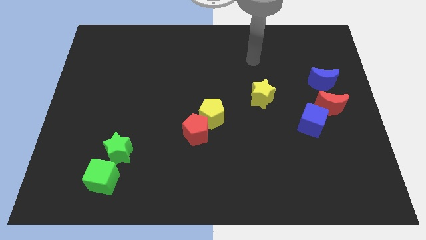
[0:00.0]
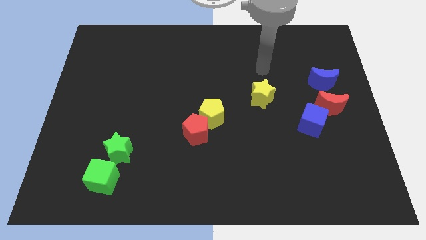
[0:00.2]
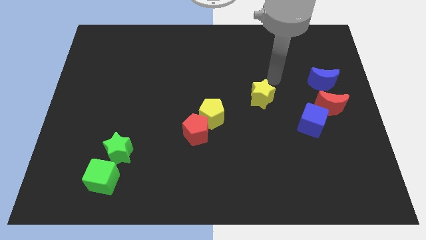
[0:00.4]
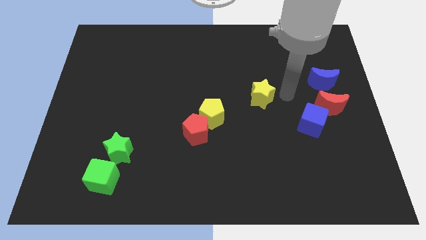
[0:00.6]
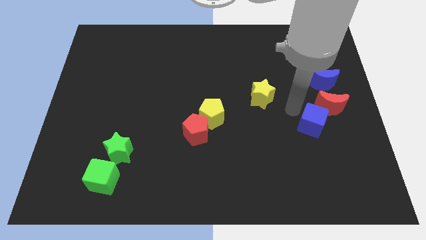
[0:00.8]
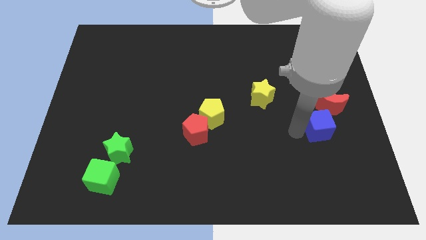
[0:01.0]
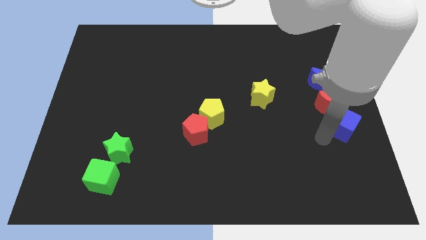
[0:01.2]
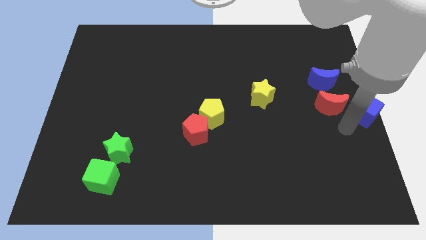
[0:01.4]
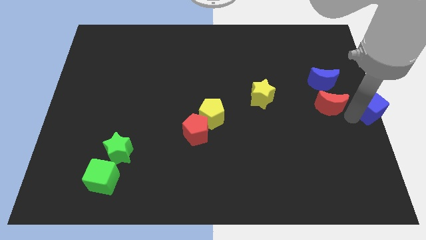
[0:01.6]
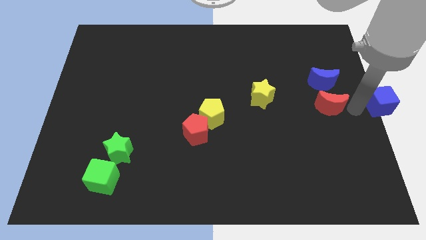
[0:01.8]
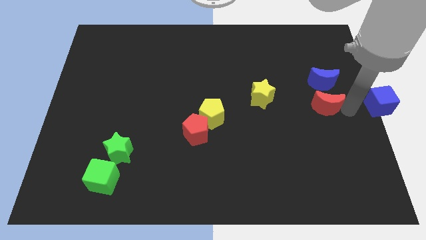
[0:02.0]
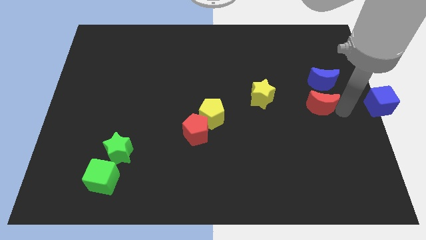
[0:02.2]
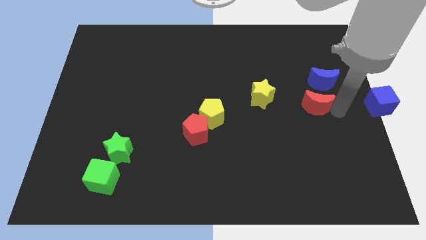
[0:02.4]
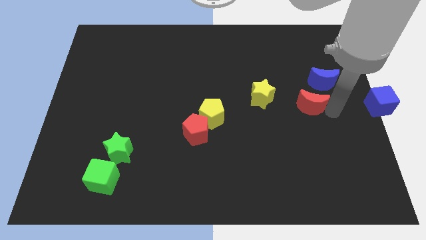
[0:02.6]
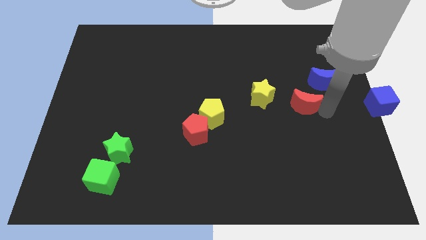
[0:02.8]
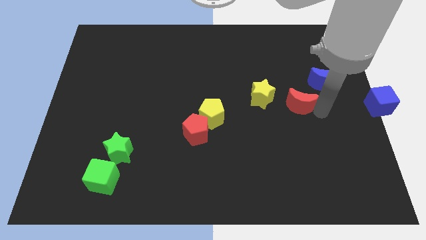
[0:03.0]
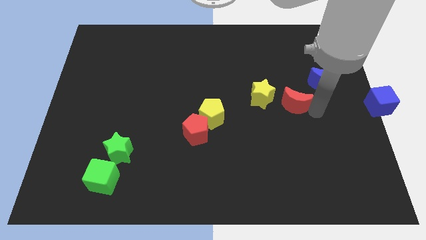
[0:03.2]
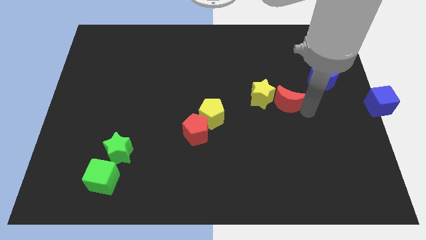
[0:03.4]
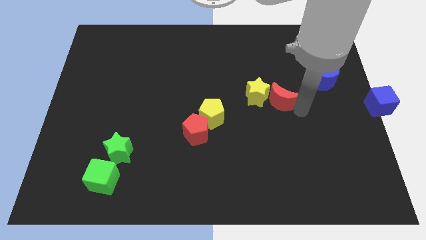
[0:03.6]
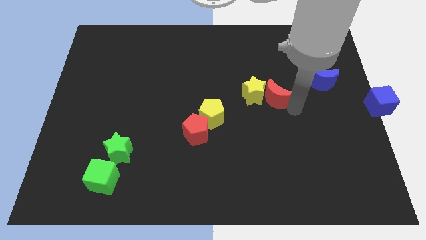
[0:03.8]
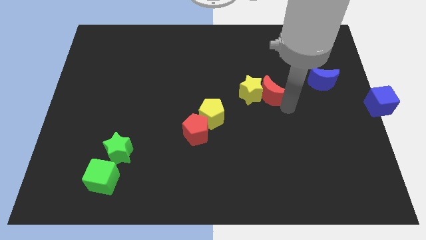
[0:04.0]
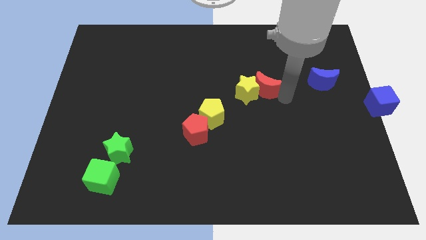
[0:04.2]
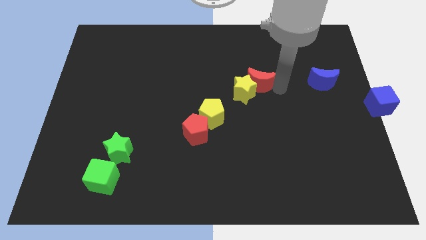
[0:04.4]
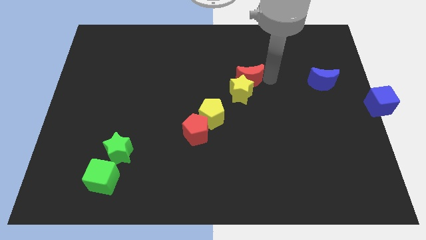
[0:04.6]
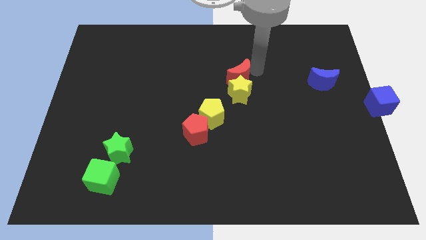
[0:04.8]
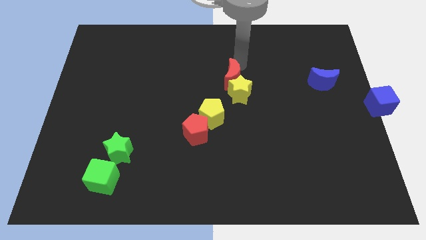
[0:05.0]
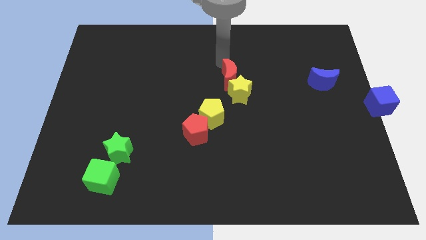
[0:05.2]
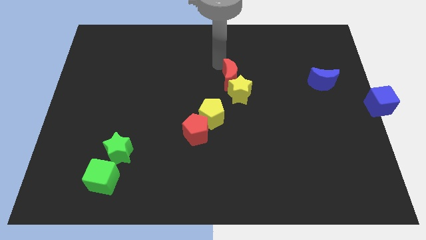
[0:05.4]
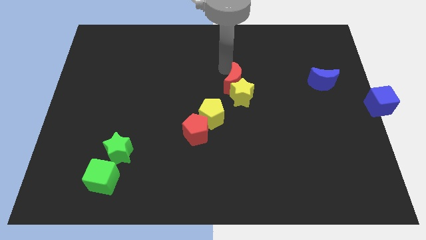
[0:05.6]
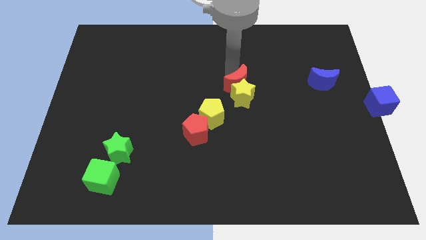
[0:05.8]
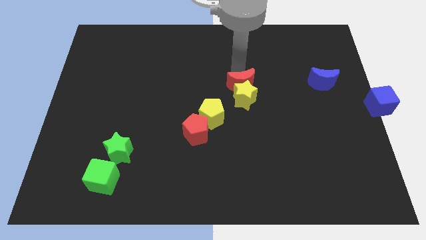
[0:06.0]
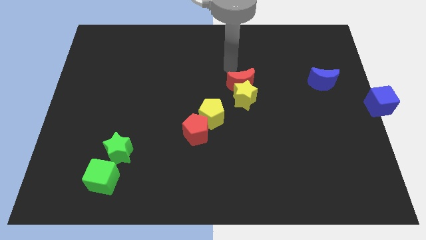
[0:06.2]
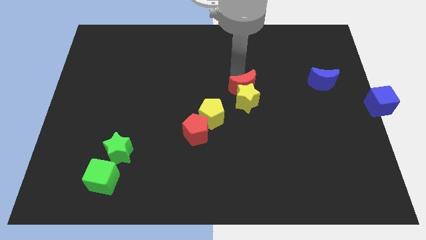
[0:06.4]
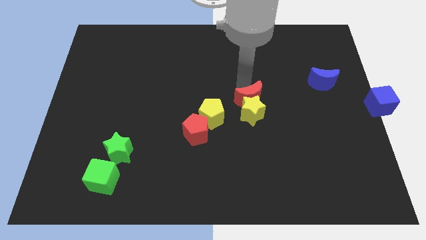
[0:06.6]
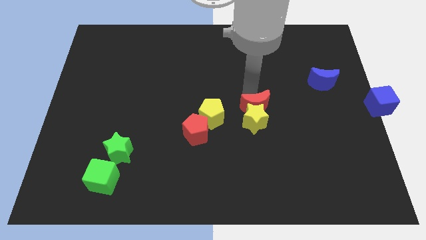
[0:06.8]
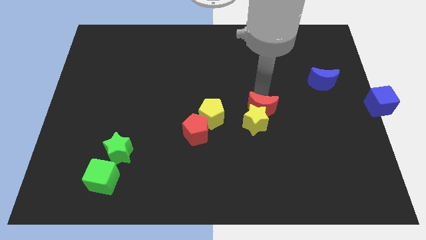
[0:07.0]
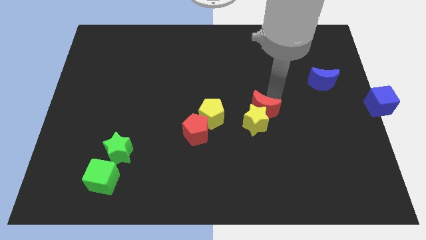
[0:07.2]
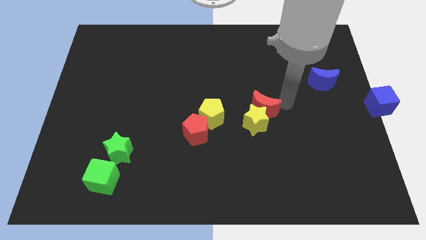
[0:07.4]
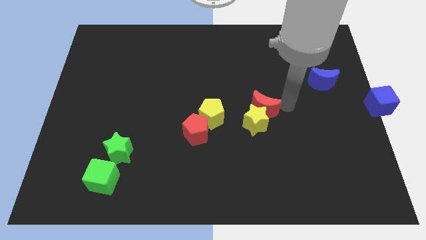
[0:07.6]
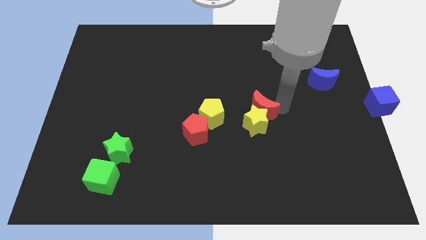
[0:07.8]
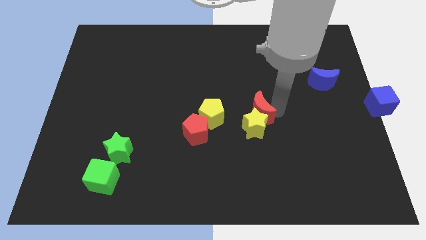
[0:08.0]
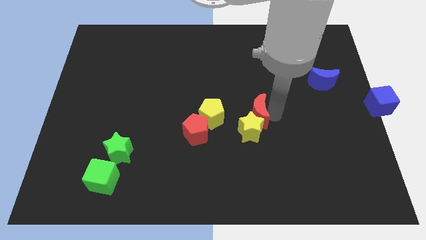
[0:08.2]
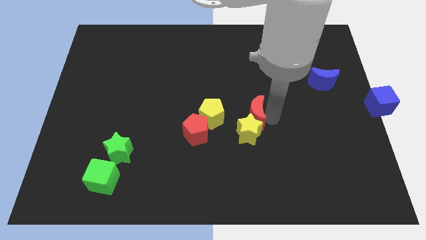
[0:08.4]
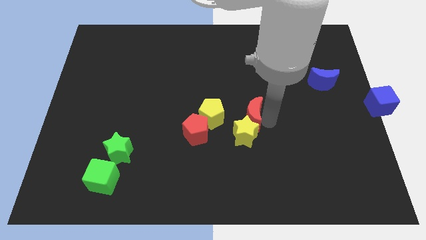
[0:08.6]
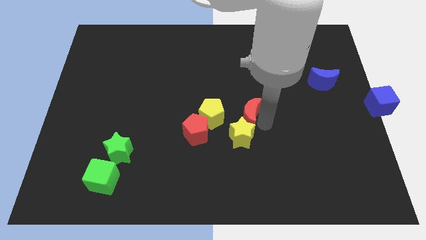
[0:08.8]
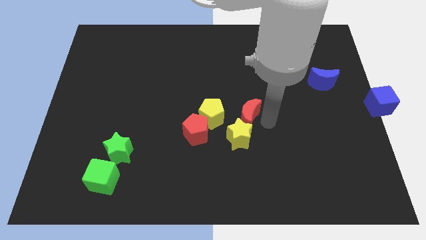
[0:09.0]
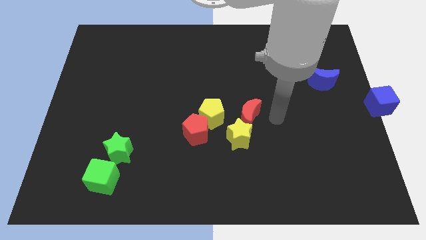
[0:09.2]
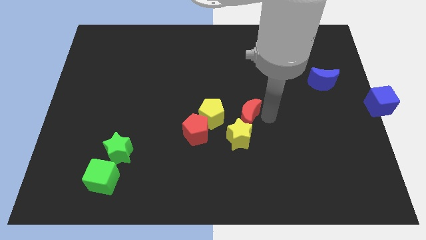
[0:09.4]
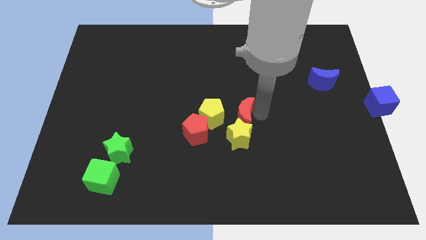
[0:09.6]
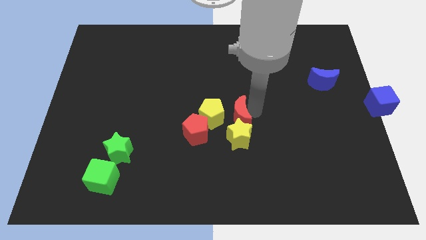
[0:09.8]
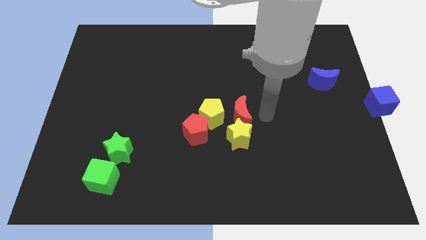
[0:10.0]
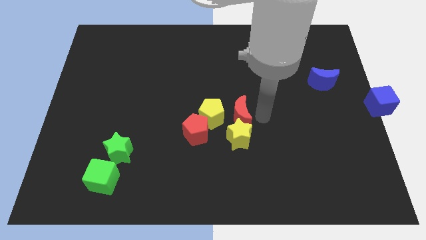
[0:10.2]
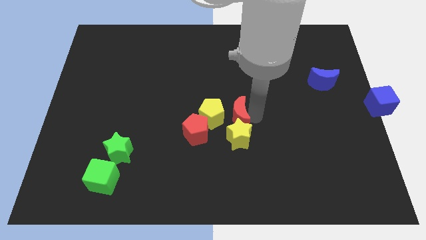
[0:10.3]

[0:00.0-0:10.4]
move the red moon towards the yellow pentagon
